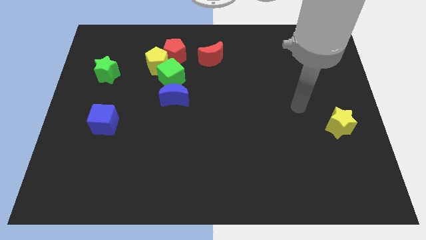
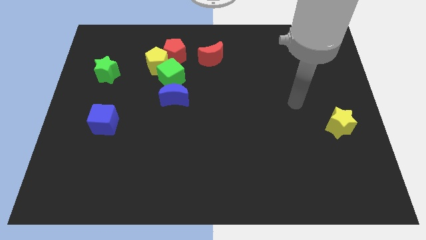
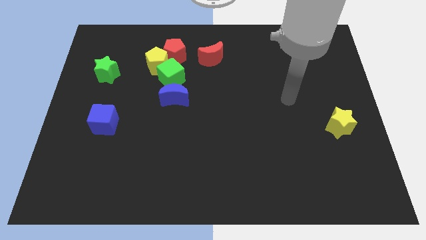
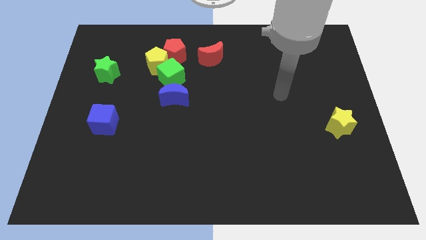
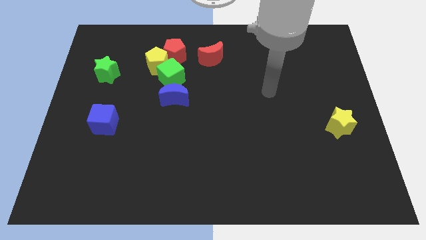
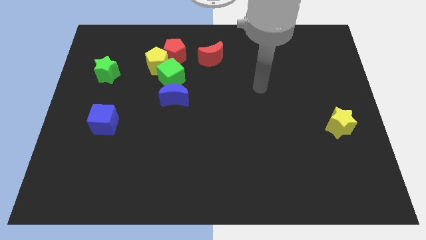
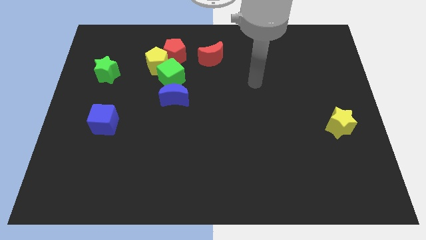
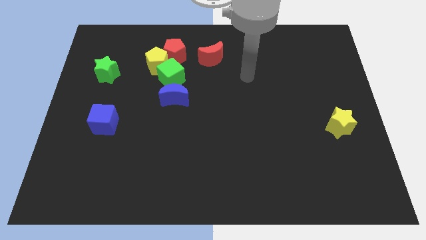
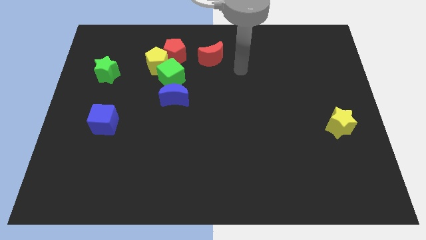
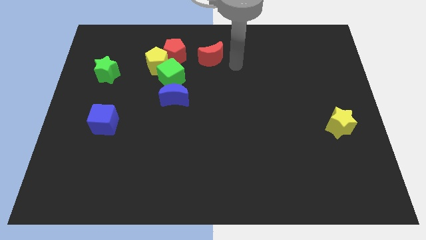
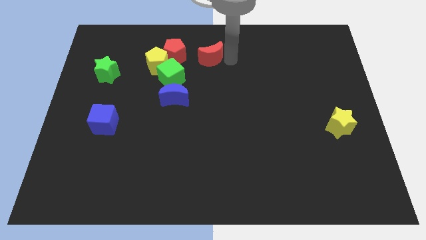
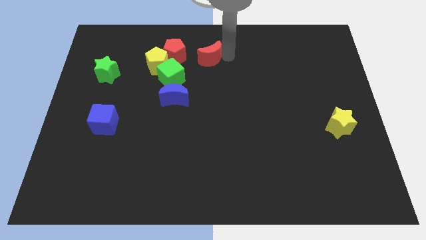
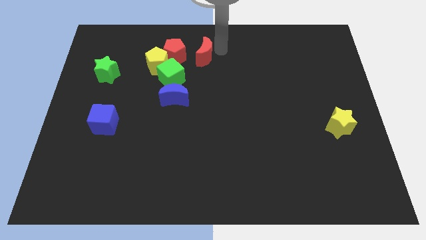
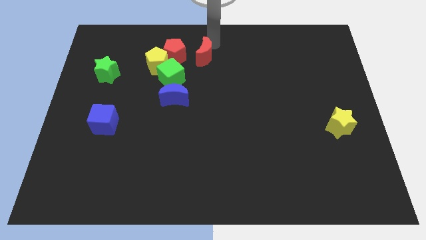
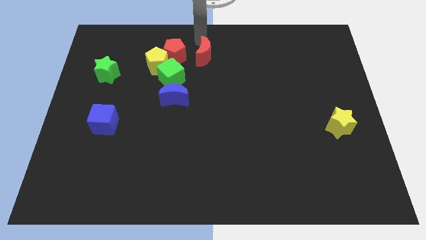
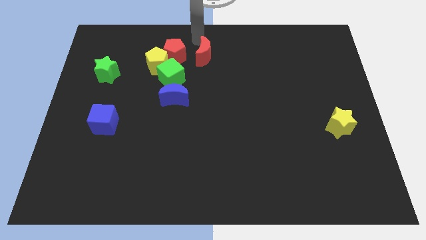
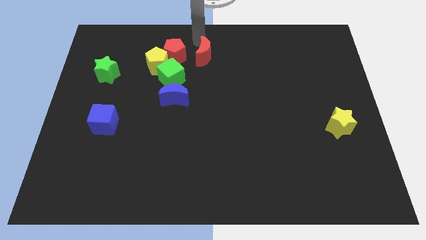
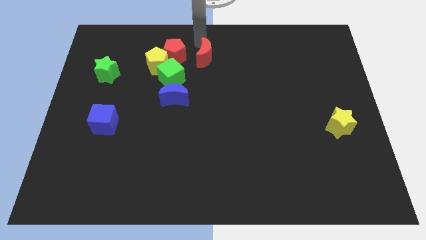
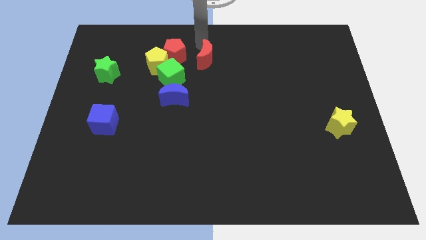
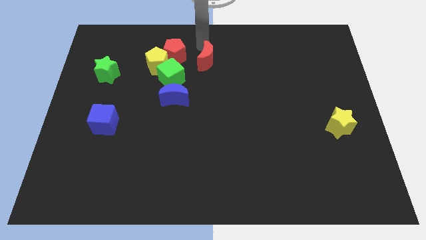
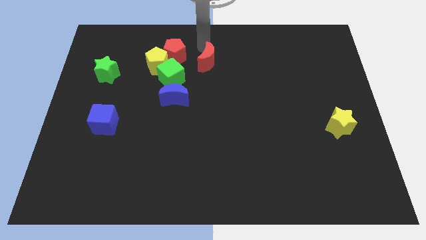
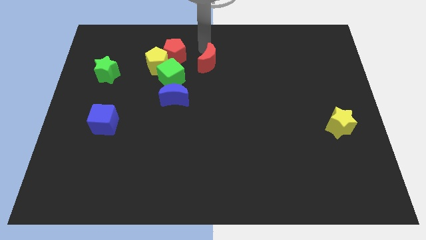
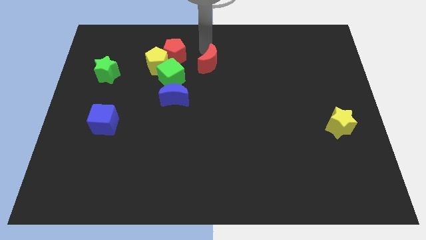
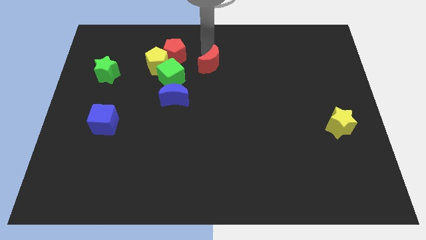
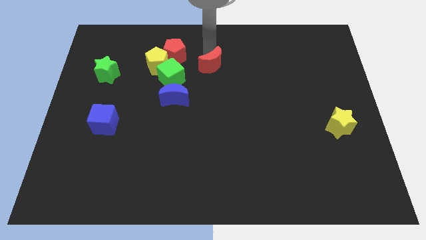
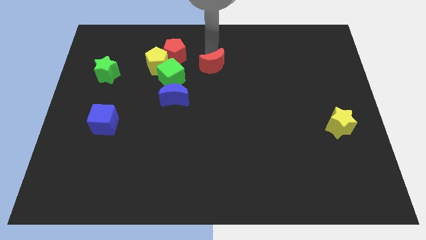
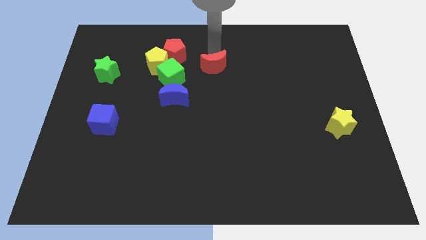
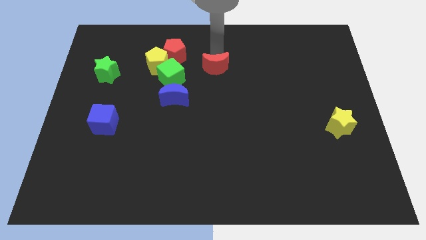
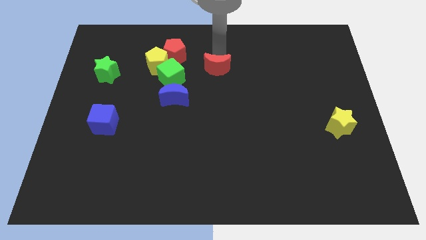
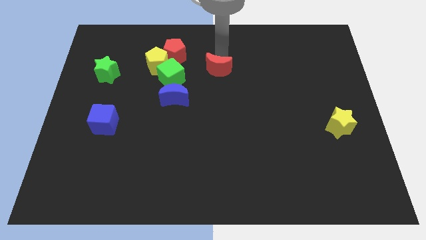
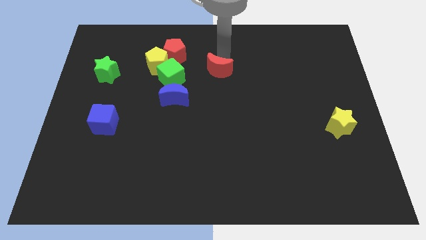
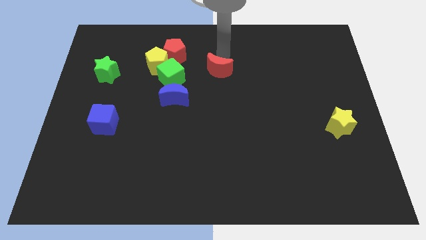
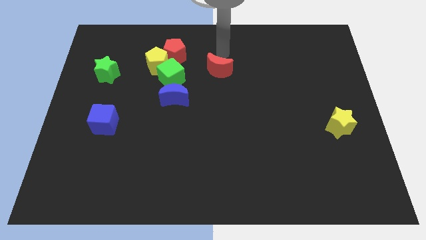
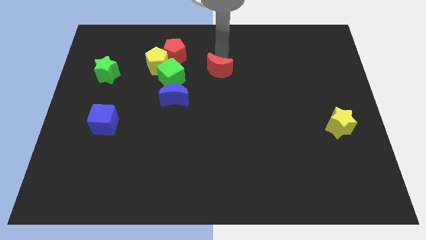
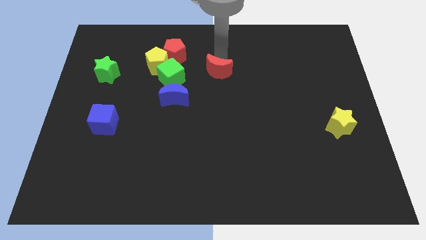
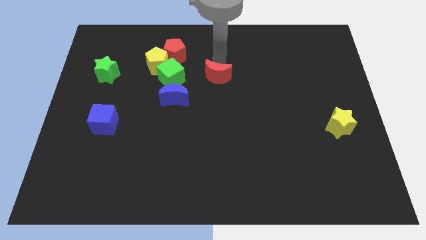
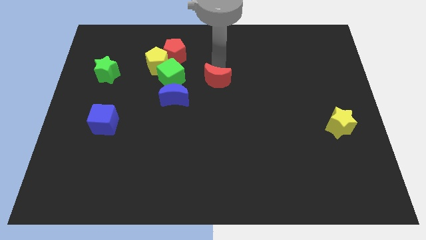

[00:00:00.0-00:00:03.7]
slide the red moon down a little bit

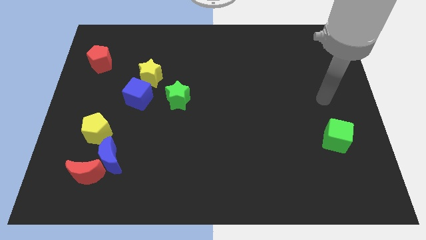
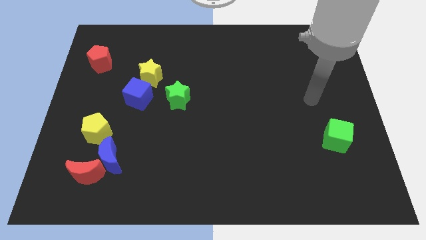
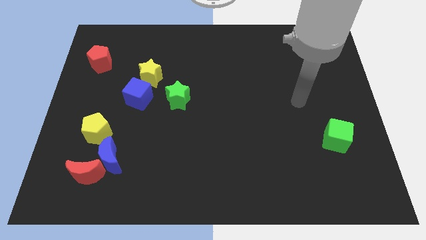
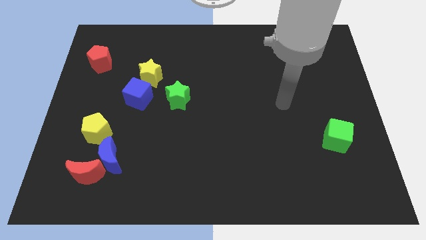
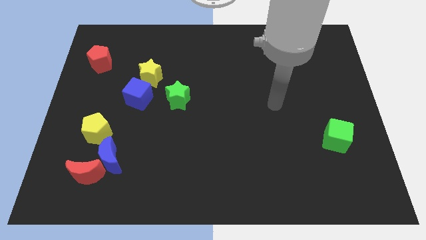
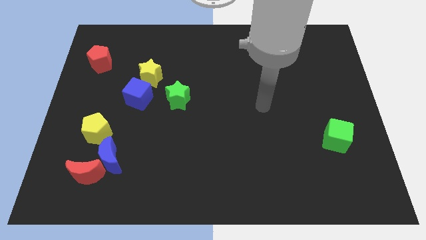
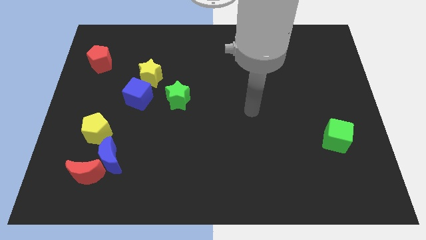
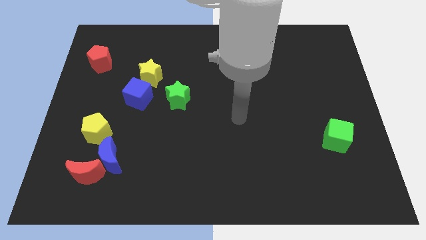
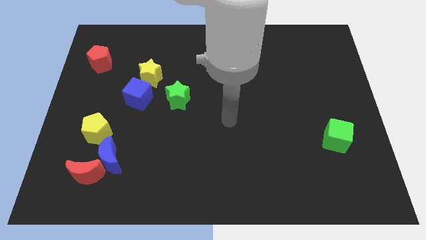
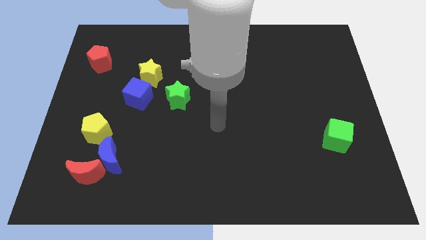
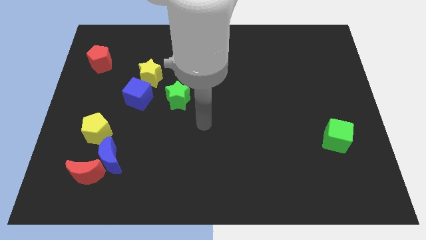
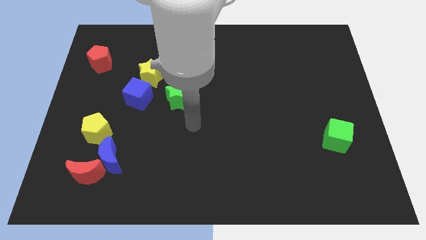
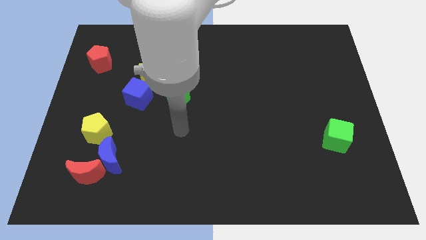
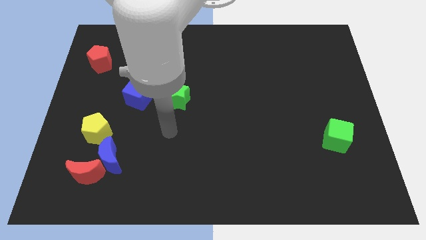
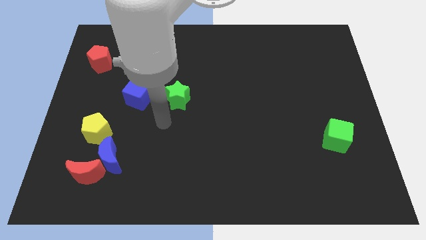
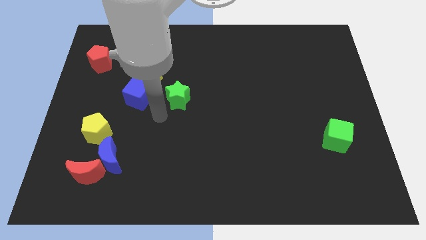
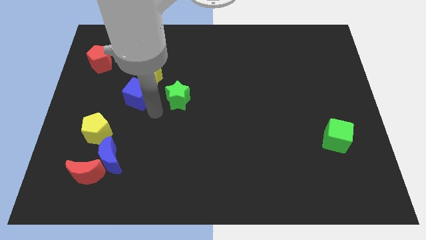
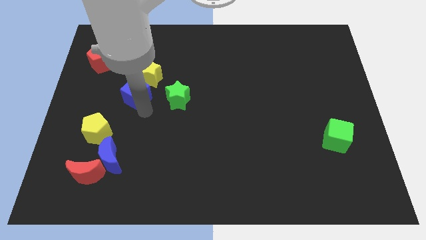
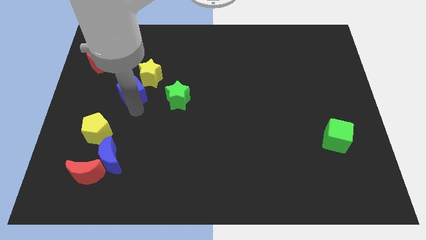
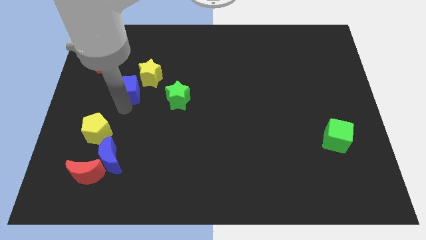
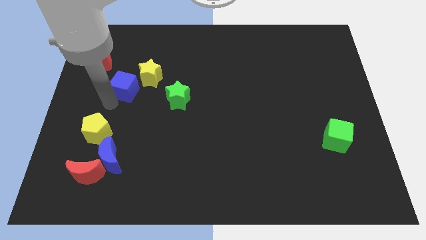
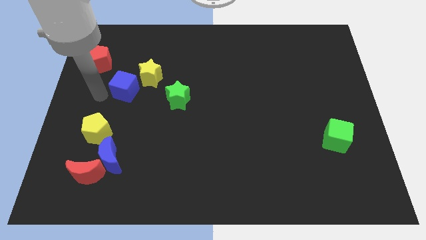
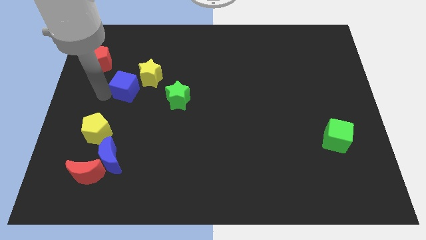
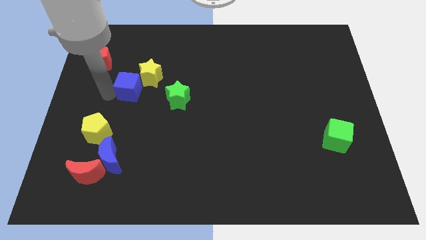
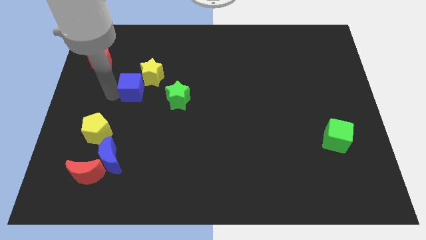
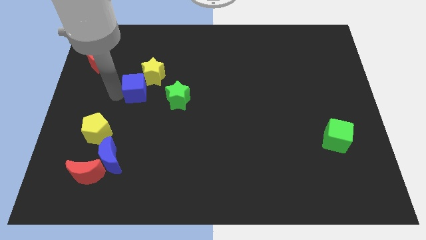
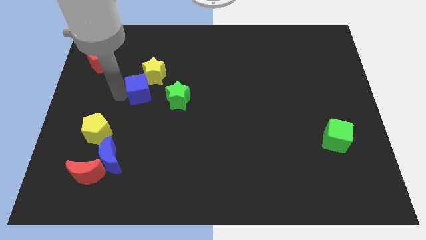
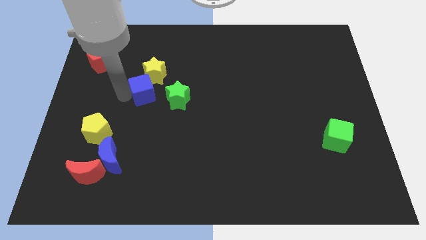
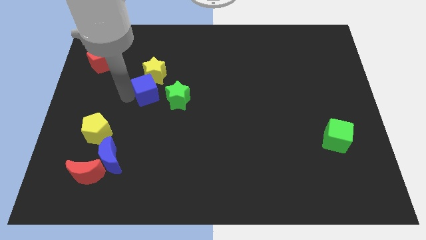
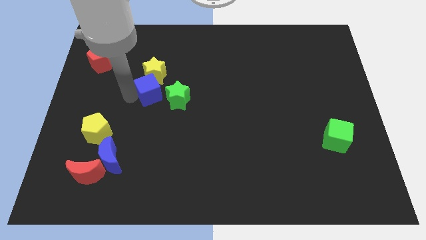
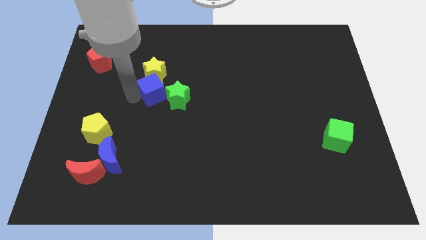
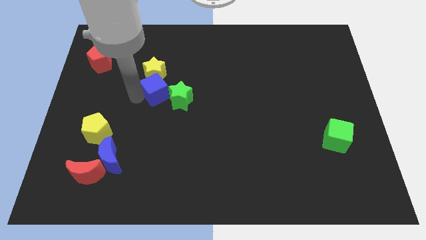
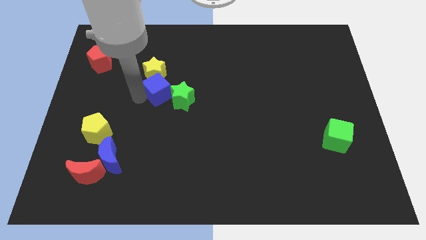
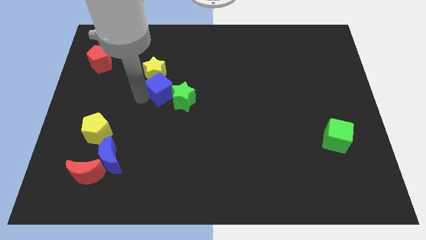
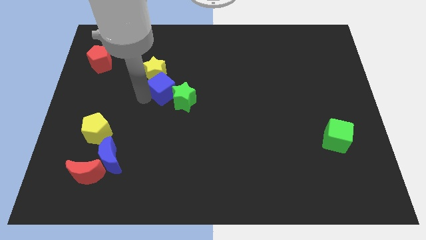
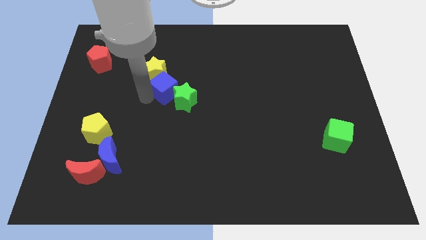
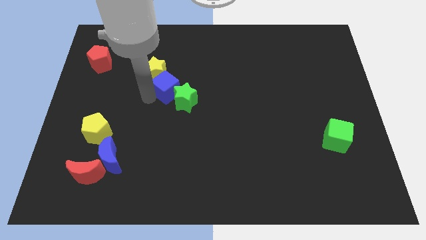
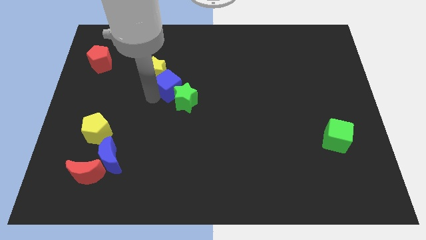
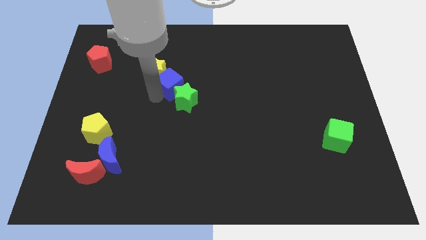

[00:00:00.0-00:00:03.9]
slide the blue cube up and right diagonally a bit

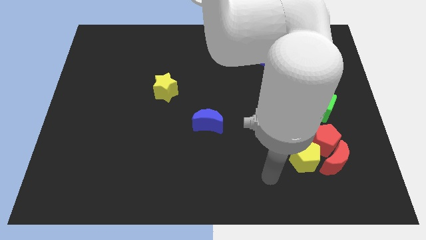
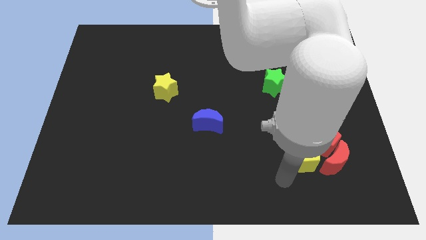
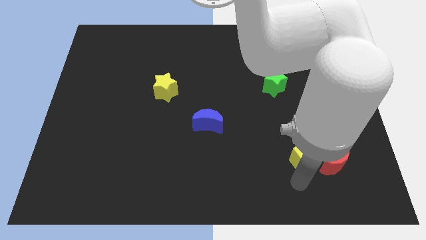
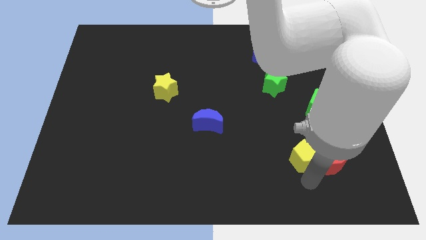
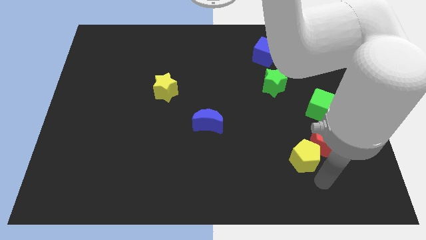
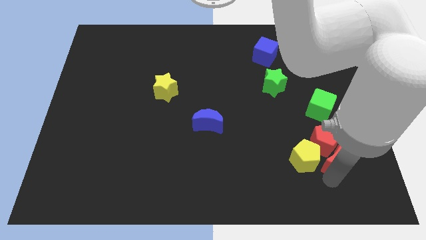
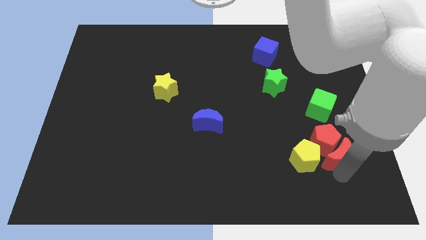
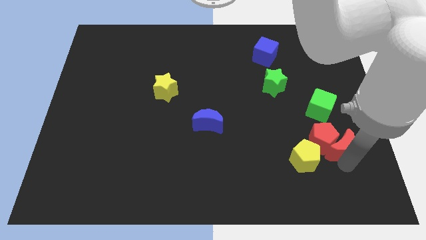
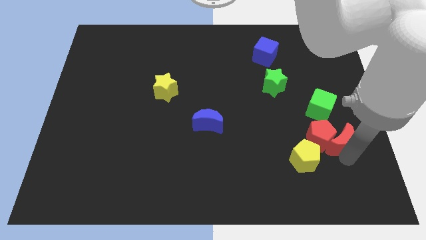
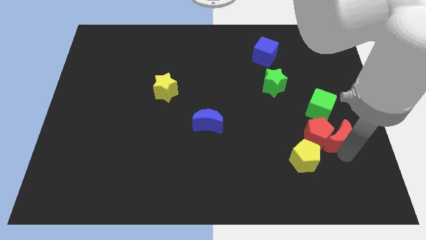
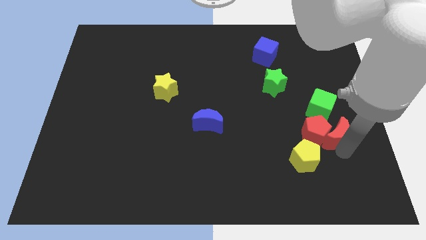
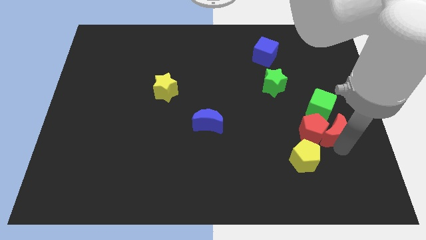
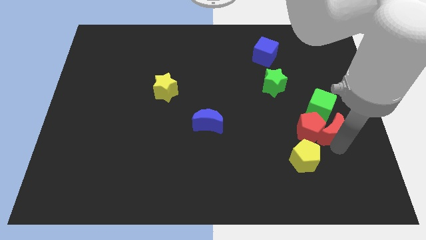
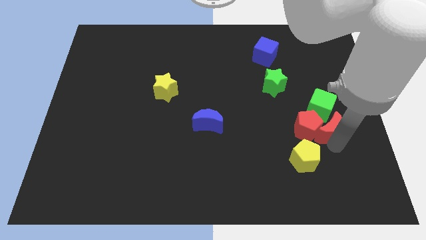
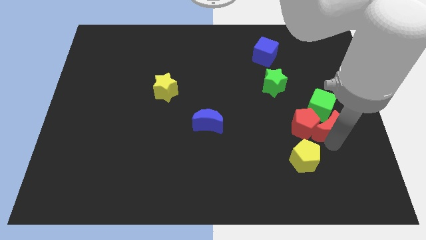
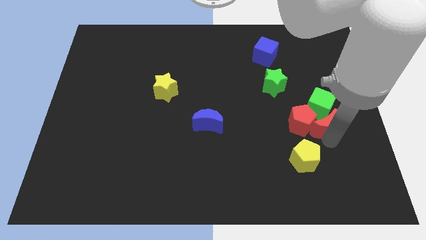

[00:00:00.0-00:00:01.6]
slightly move the red pentagon up and left diagonally
